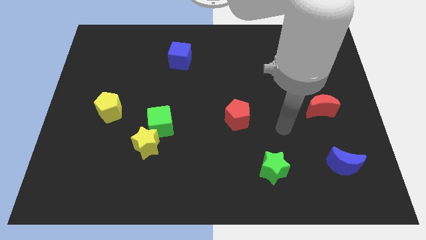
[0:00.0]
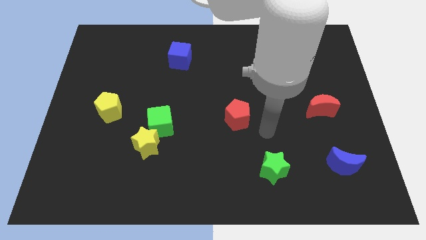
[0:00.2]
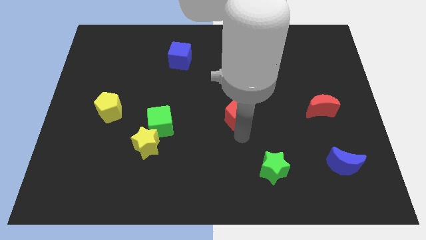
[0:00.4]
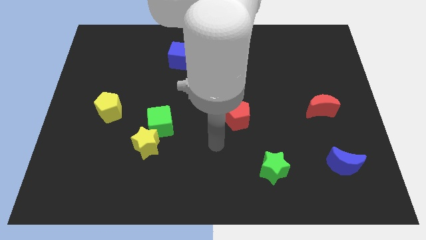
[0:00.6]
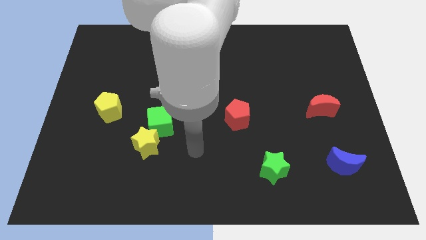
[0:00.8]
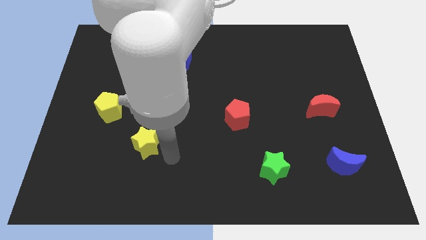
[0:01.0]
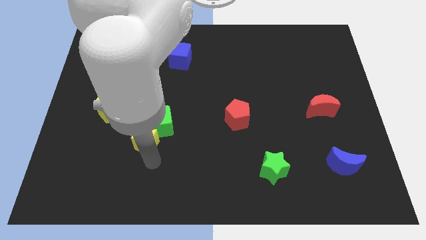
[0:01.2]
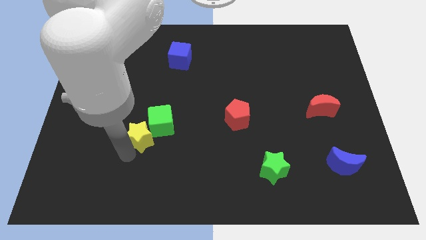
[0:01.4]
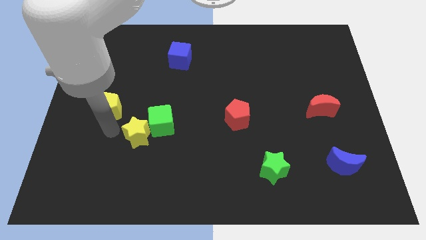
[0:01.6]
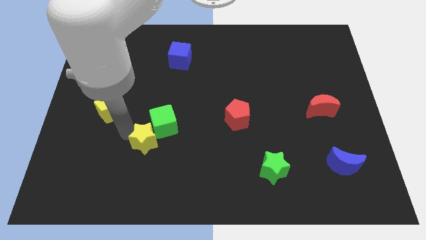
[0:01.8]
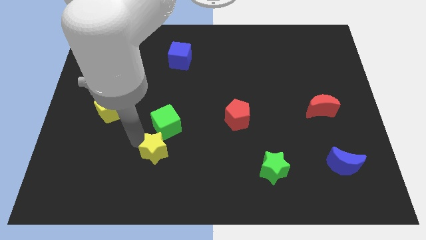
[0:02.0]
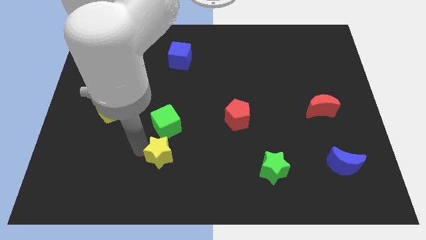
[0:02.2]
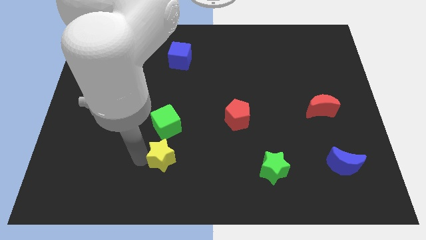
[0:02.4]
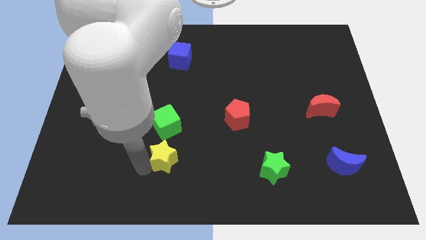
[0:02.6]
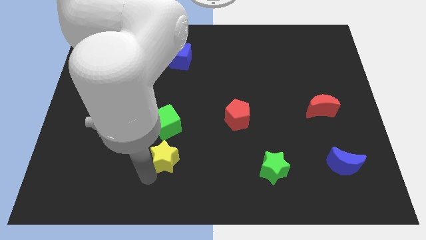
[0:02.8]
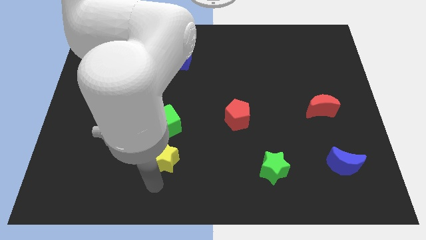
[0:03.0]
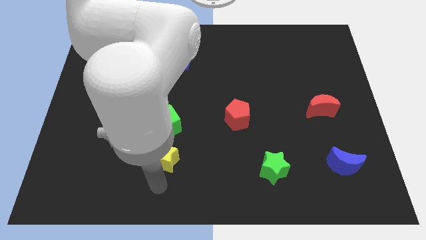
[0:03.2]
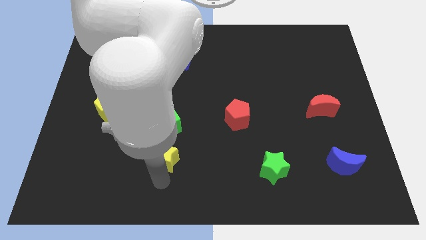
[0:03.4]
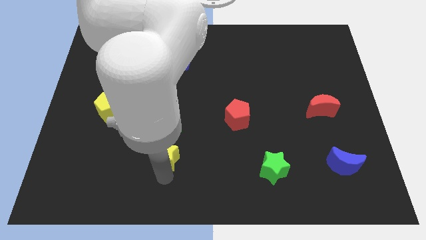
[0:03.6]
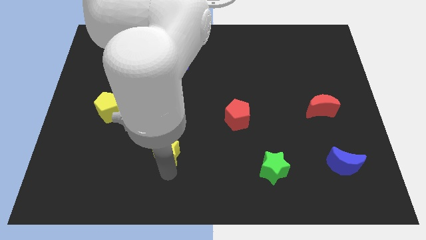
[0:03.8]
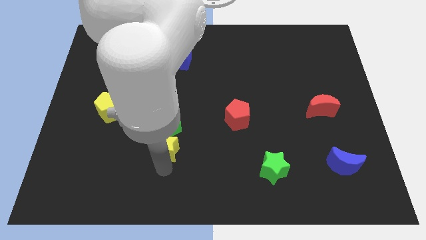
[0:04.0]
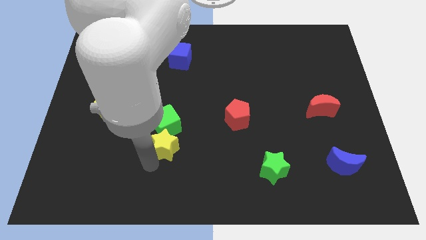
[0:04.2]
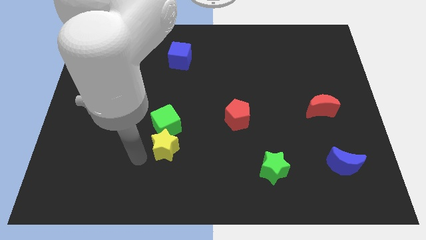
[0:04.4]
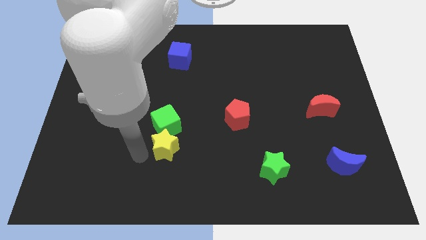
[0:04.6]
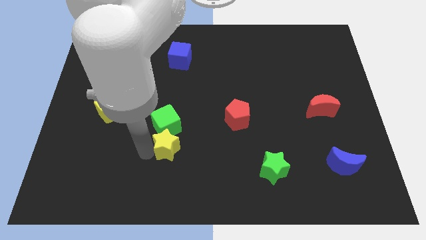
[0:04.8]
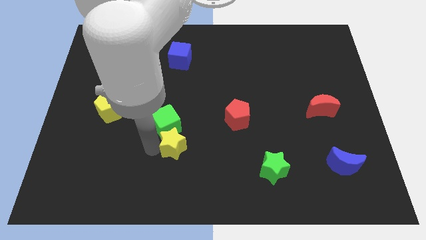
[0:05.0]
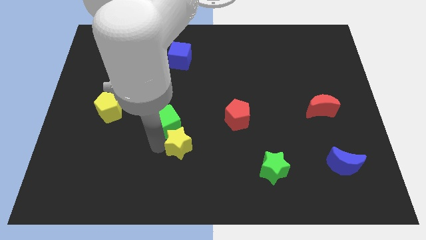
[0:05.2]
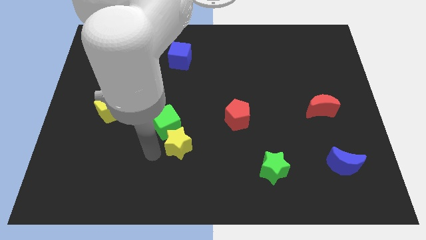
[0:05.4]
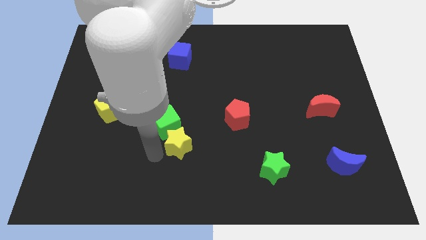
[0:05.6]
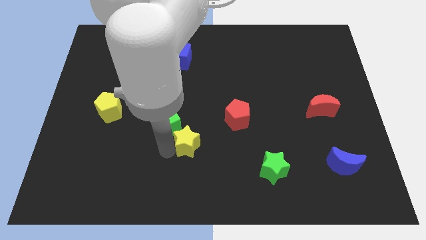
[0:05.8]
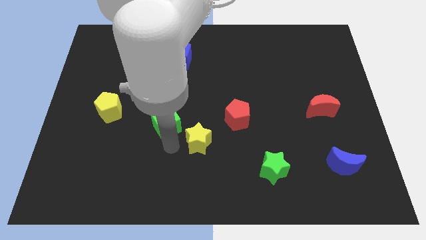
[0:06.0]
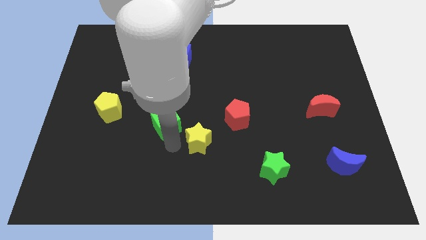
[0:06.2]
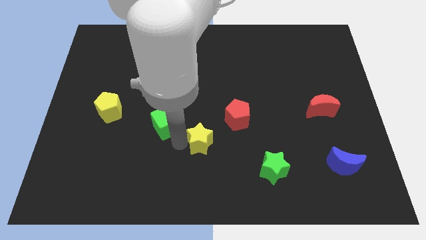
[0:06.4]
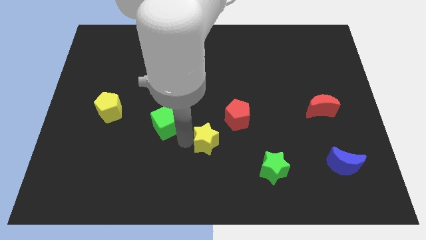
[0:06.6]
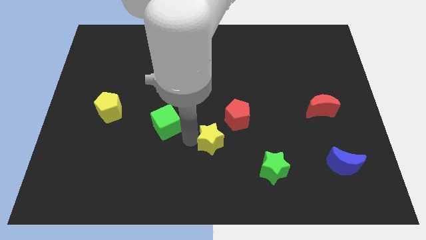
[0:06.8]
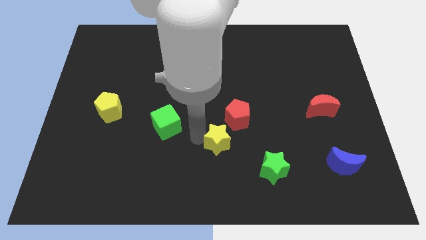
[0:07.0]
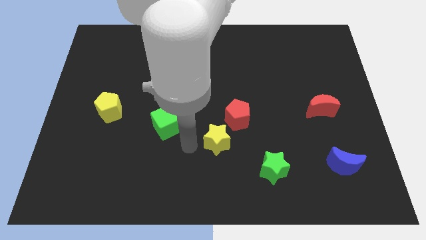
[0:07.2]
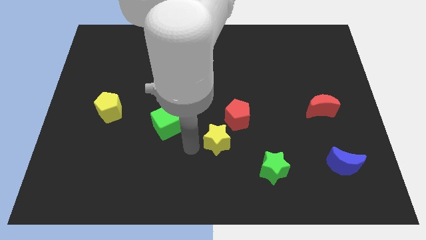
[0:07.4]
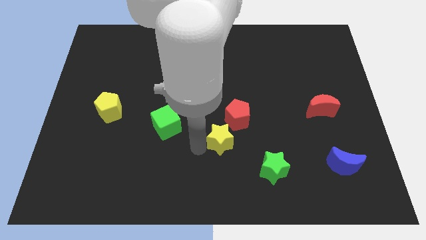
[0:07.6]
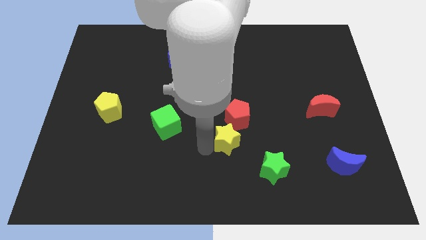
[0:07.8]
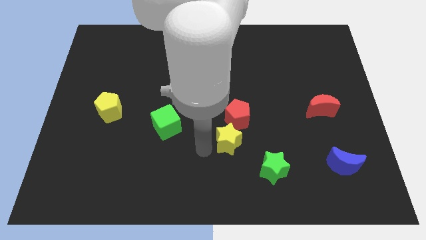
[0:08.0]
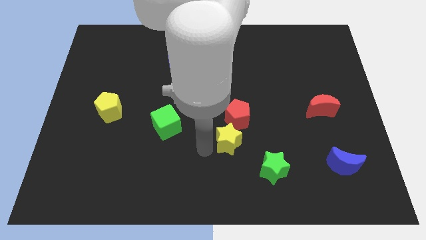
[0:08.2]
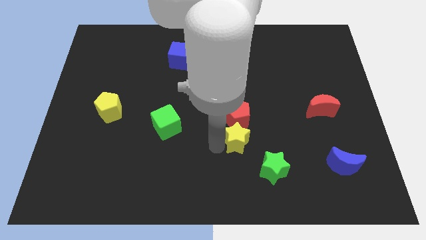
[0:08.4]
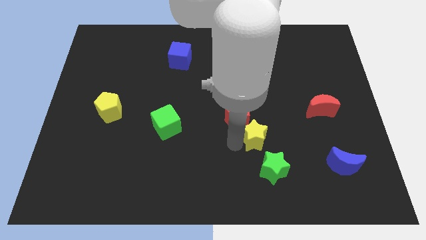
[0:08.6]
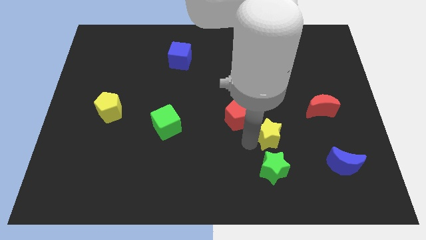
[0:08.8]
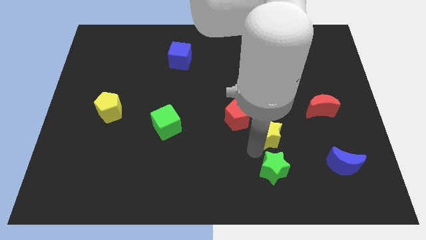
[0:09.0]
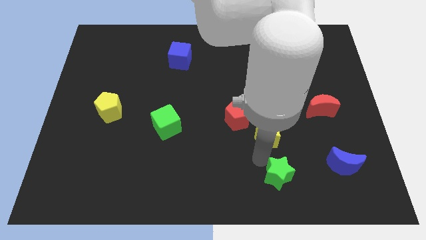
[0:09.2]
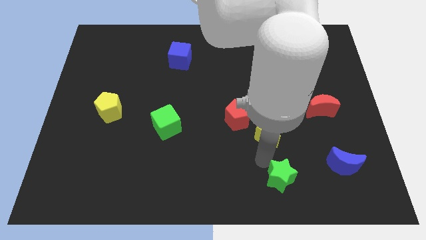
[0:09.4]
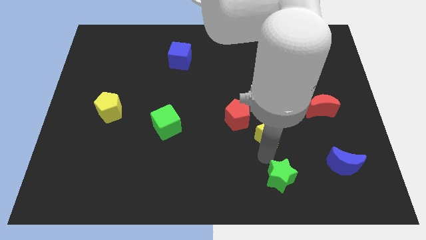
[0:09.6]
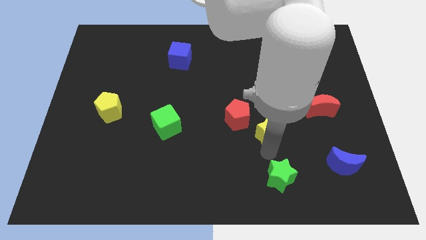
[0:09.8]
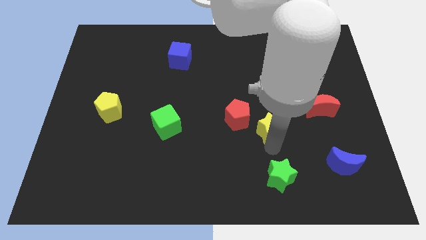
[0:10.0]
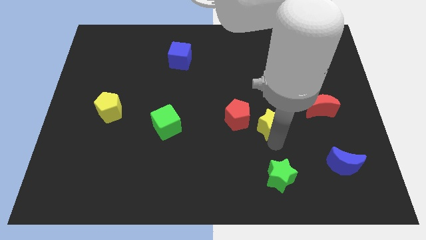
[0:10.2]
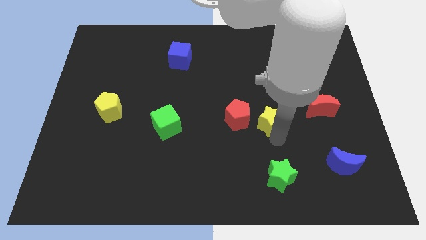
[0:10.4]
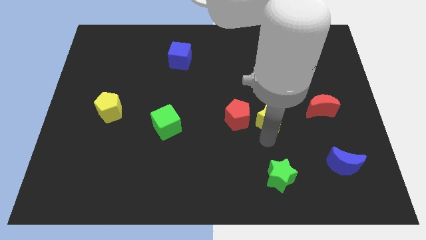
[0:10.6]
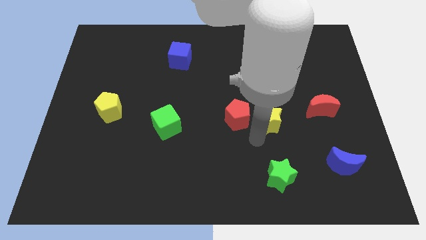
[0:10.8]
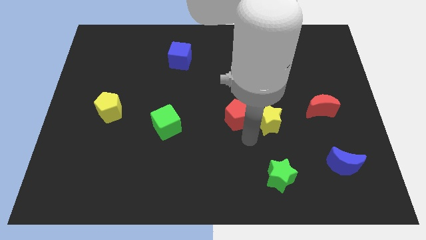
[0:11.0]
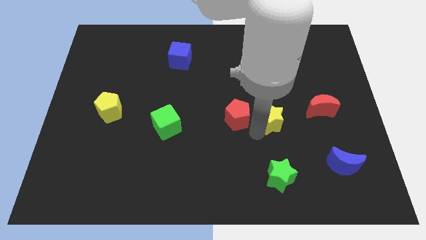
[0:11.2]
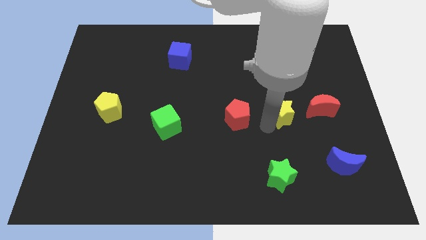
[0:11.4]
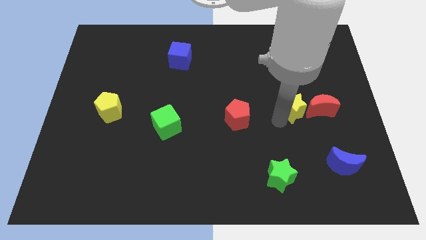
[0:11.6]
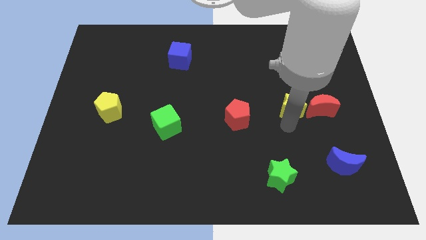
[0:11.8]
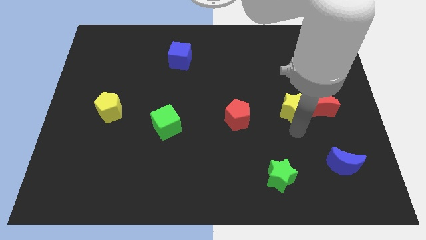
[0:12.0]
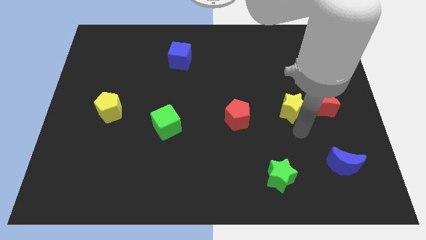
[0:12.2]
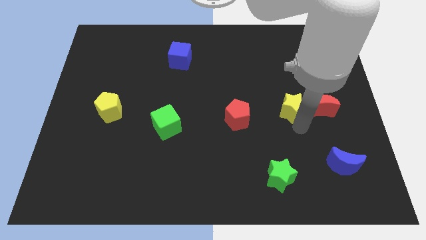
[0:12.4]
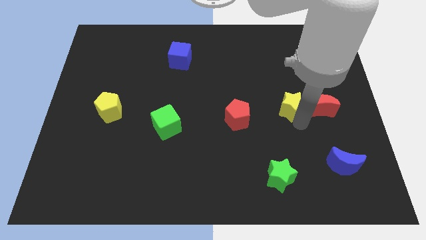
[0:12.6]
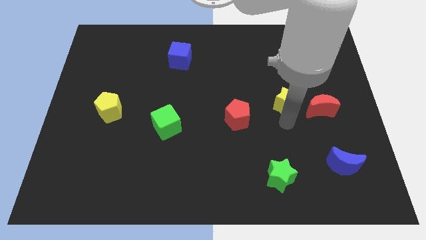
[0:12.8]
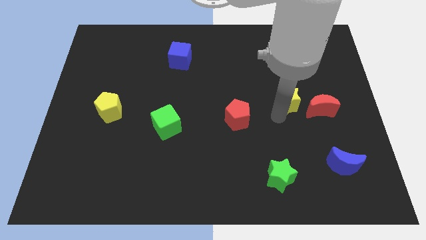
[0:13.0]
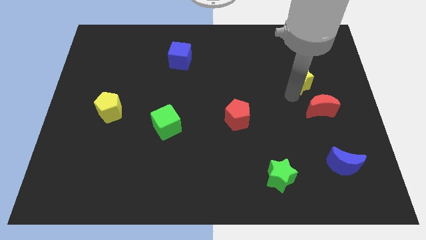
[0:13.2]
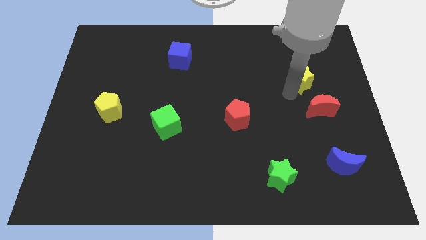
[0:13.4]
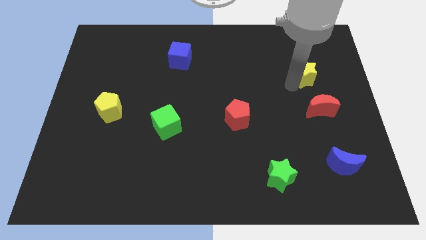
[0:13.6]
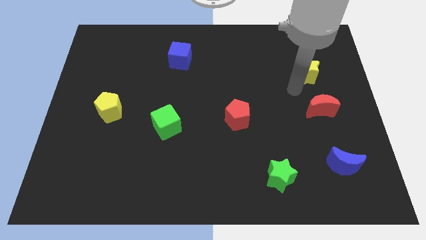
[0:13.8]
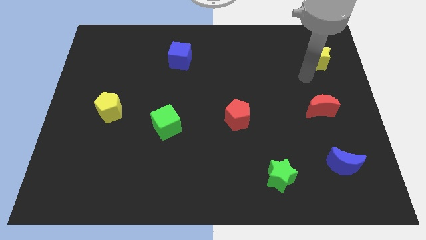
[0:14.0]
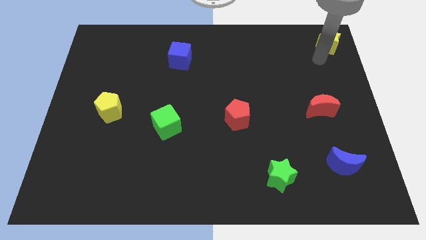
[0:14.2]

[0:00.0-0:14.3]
slide the yellow star to the upper right corner
